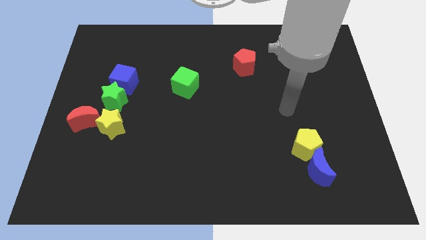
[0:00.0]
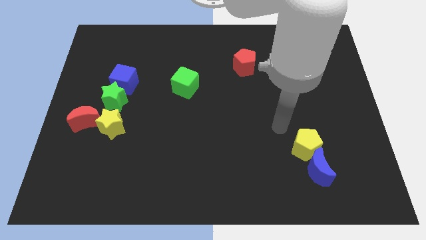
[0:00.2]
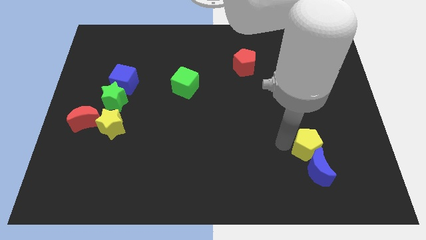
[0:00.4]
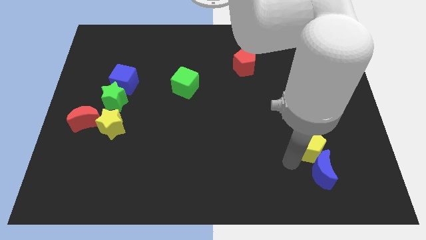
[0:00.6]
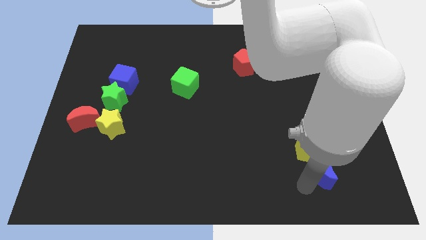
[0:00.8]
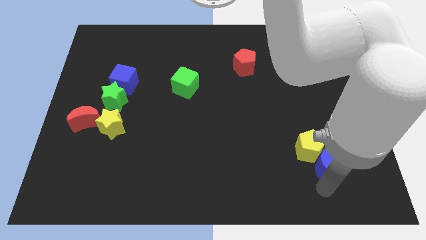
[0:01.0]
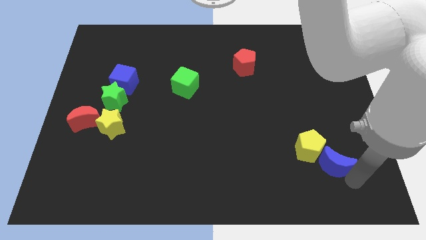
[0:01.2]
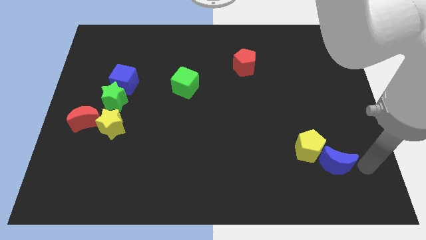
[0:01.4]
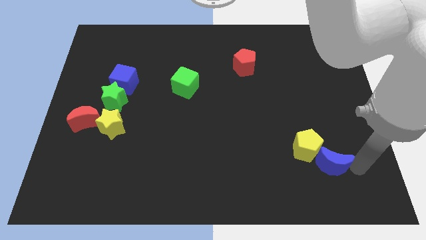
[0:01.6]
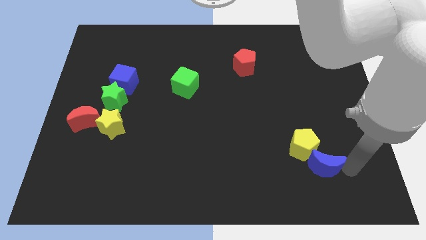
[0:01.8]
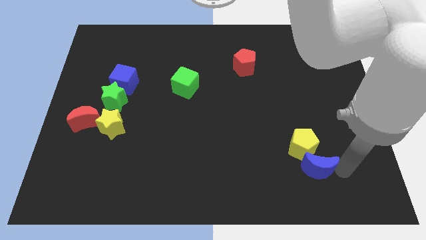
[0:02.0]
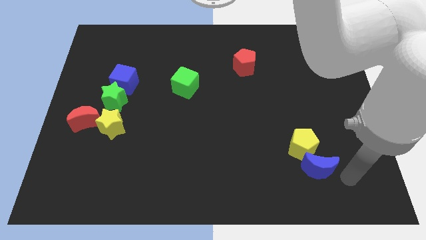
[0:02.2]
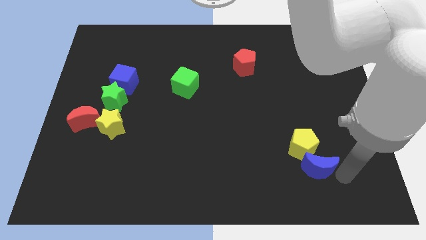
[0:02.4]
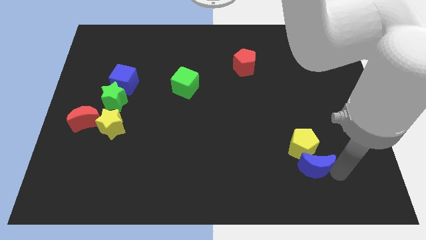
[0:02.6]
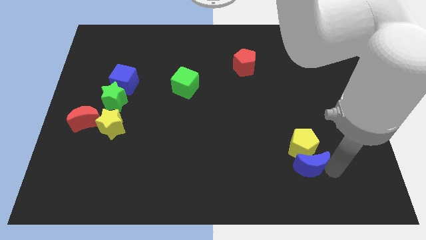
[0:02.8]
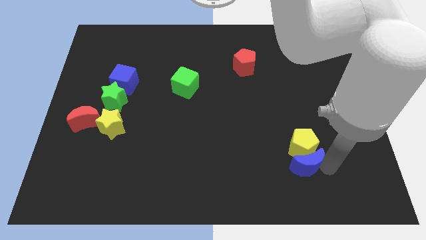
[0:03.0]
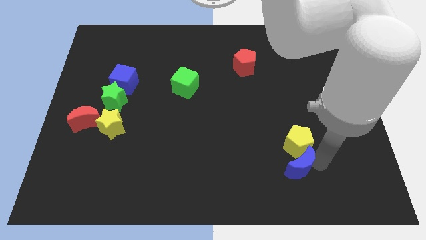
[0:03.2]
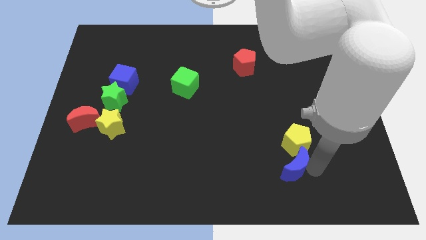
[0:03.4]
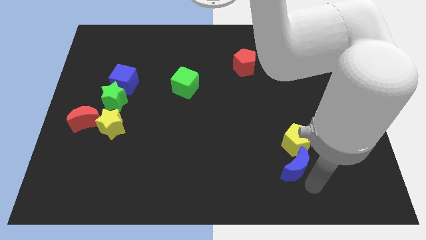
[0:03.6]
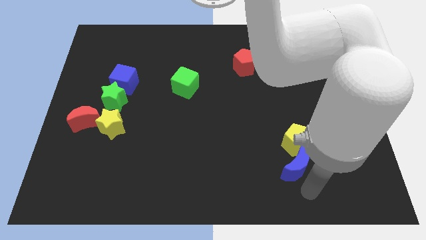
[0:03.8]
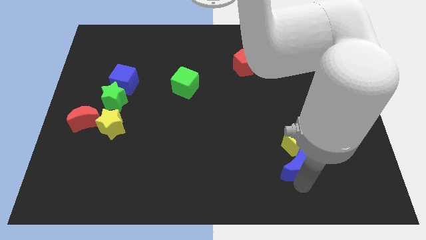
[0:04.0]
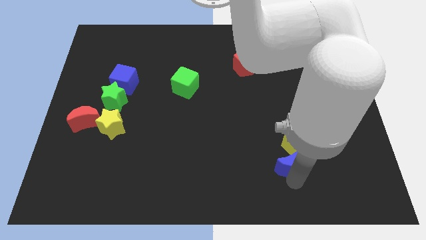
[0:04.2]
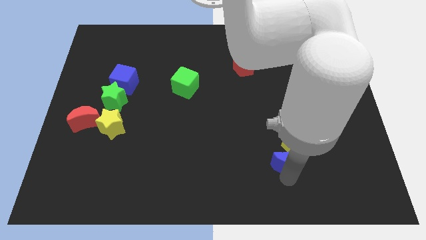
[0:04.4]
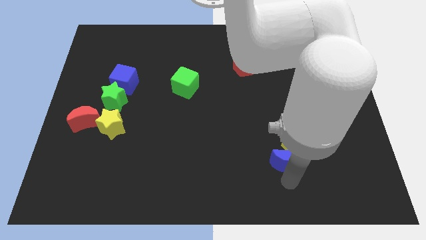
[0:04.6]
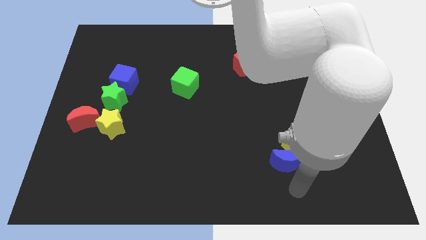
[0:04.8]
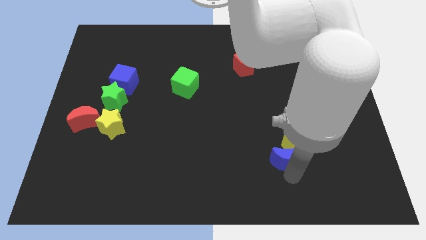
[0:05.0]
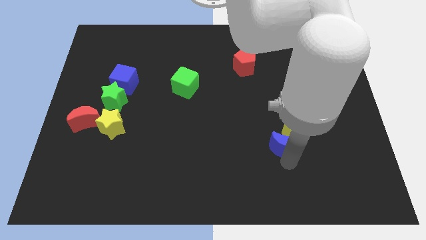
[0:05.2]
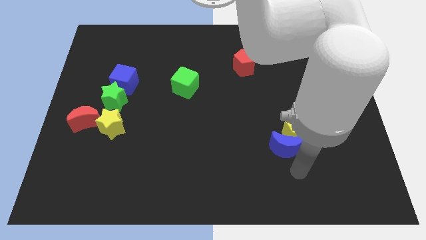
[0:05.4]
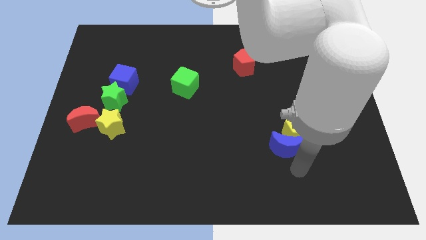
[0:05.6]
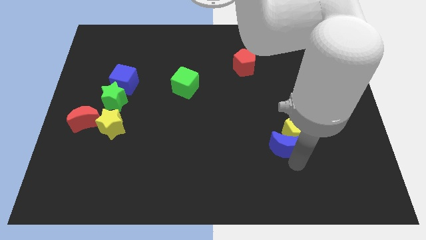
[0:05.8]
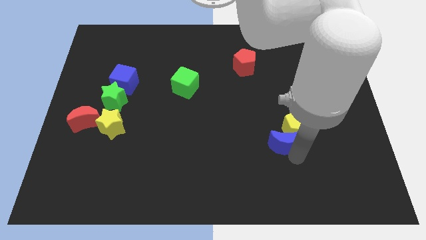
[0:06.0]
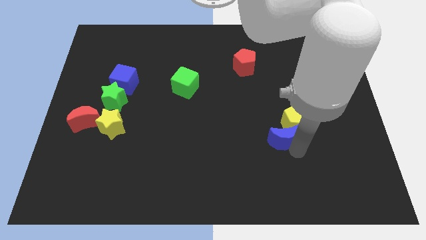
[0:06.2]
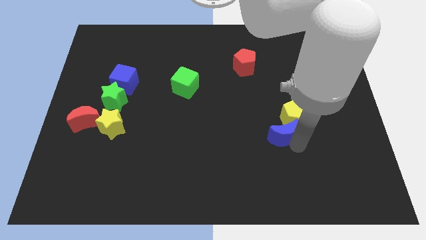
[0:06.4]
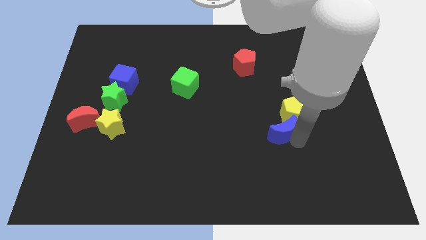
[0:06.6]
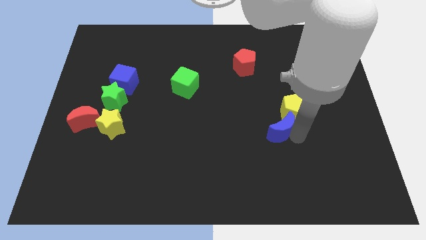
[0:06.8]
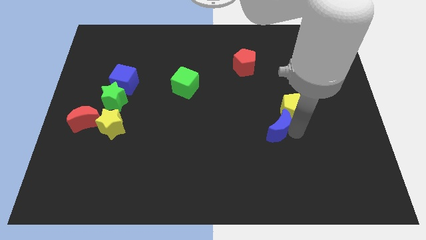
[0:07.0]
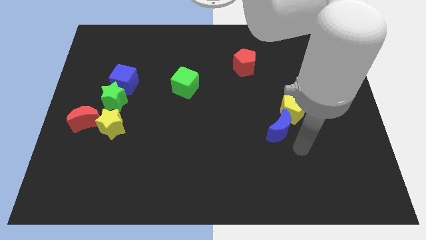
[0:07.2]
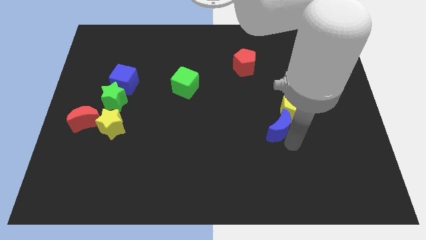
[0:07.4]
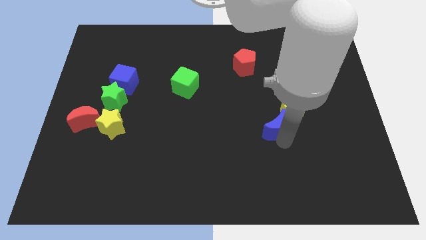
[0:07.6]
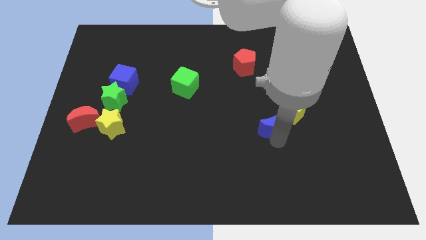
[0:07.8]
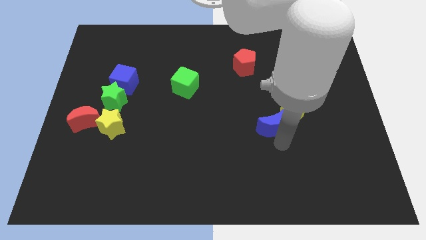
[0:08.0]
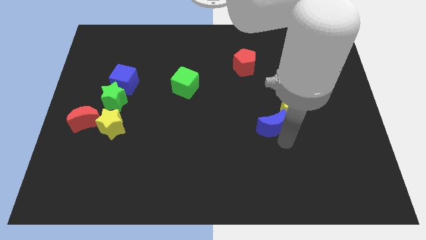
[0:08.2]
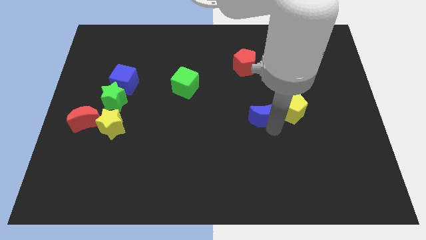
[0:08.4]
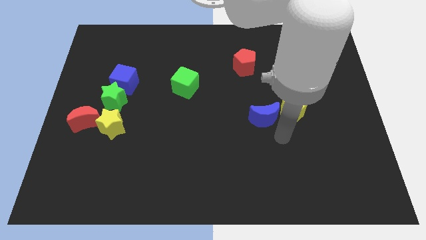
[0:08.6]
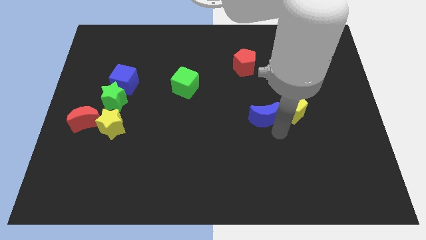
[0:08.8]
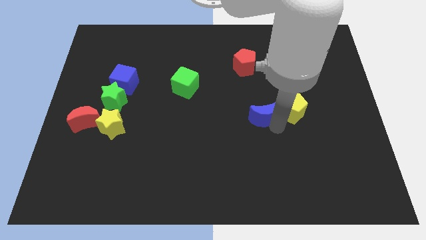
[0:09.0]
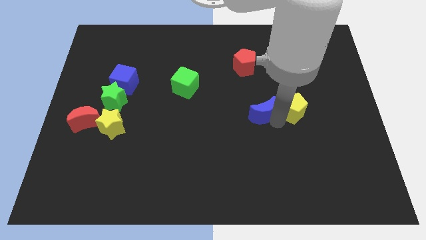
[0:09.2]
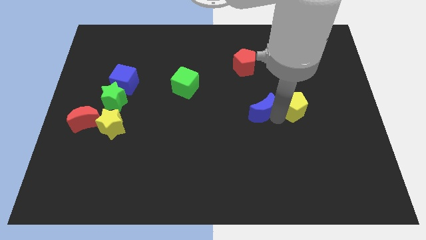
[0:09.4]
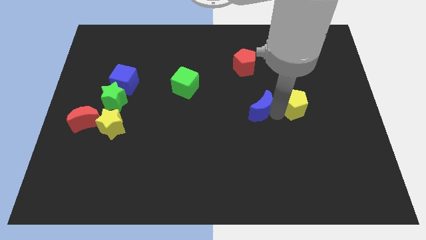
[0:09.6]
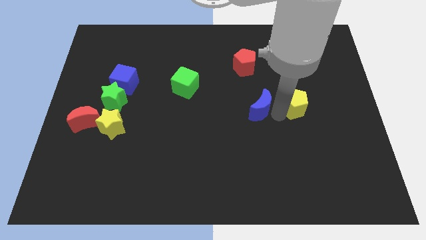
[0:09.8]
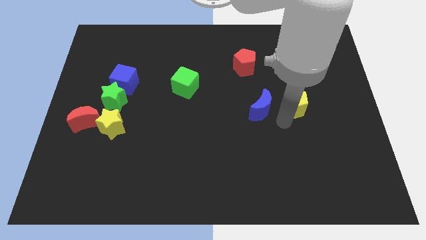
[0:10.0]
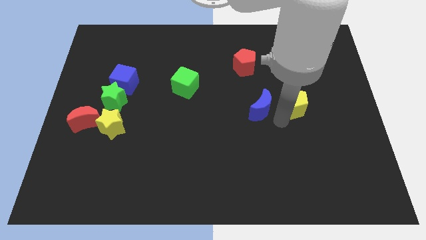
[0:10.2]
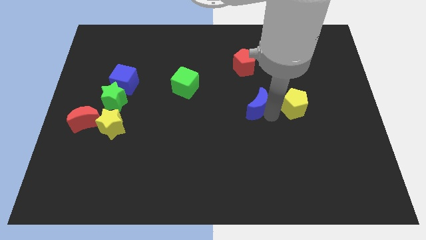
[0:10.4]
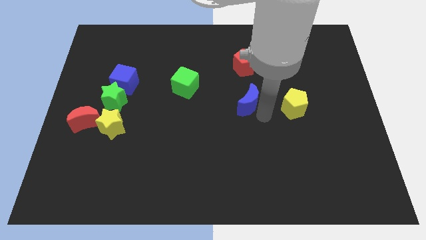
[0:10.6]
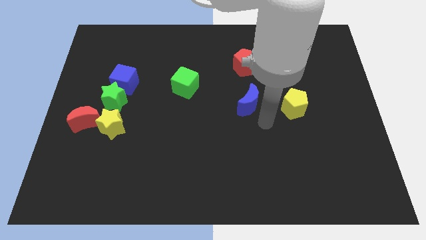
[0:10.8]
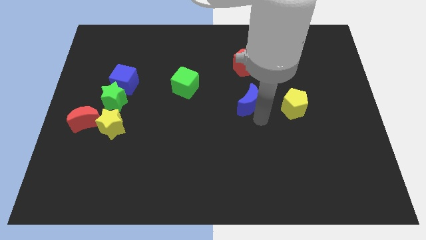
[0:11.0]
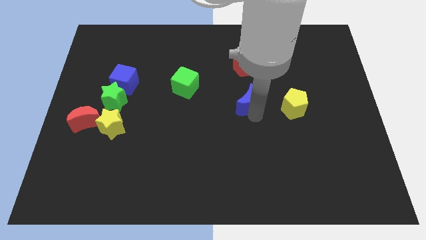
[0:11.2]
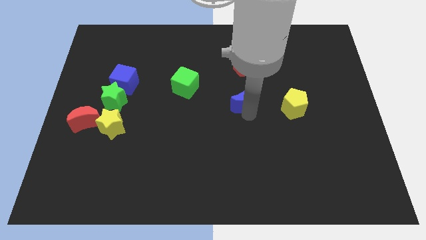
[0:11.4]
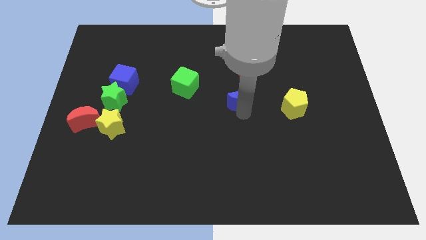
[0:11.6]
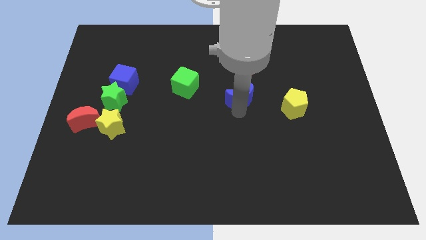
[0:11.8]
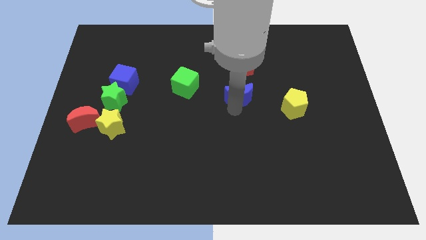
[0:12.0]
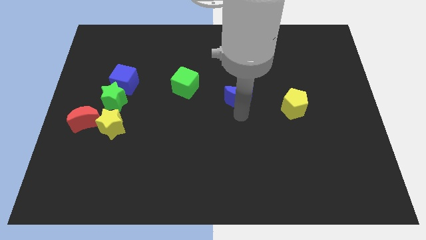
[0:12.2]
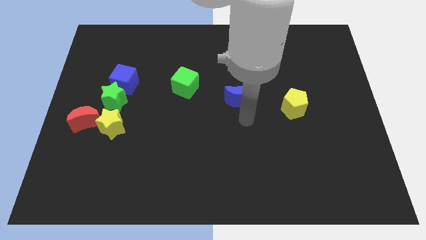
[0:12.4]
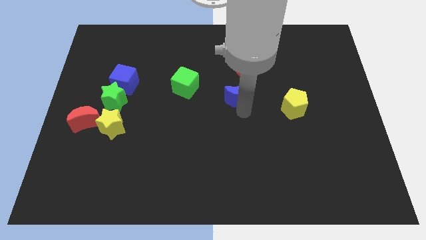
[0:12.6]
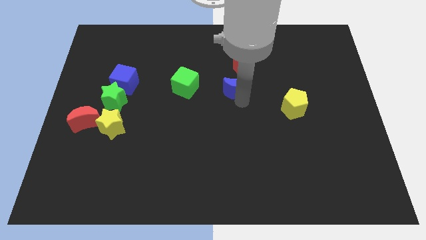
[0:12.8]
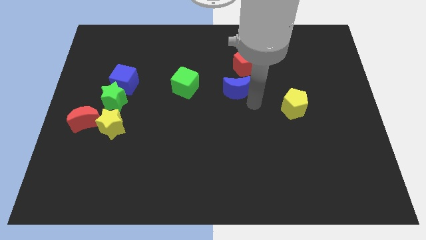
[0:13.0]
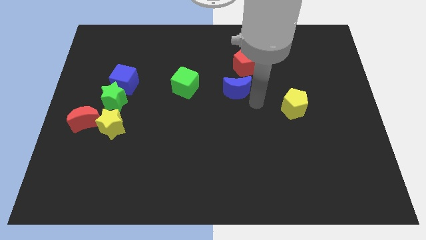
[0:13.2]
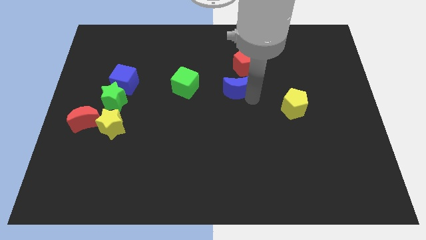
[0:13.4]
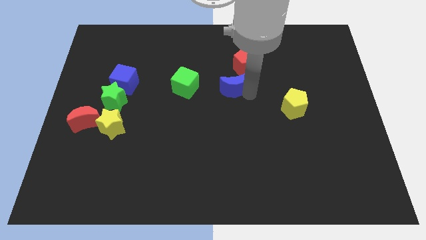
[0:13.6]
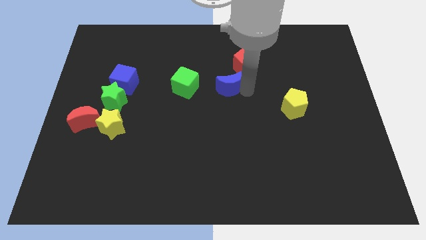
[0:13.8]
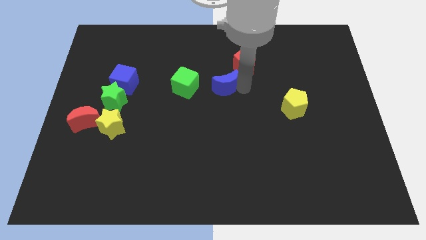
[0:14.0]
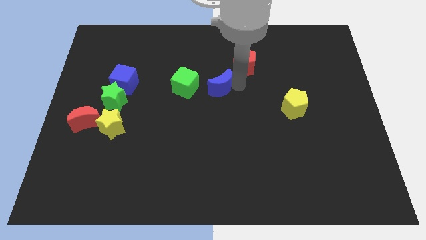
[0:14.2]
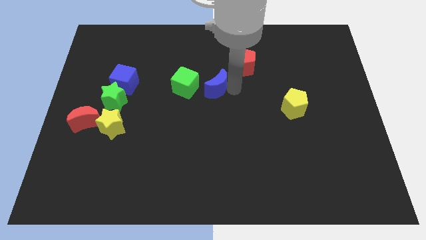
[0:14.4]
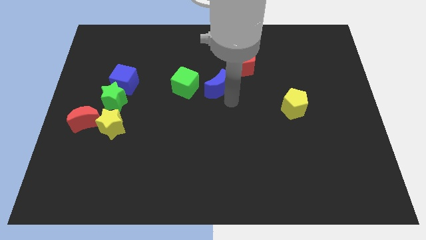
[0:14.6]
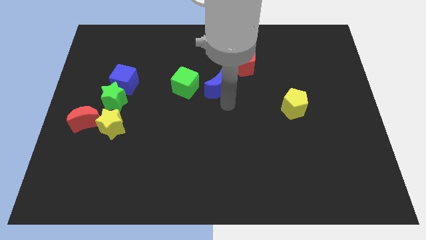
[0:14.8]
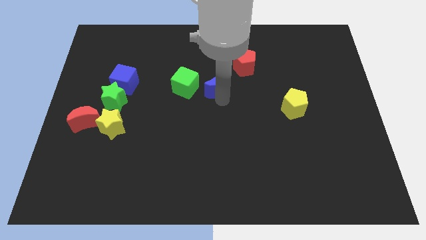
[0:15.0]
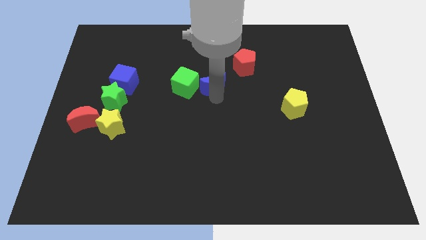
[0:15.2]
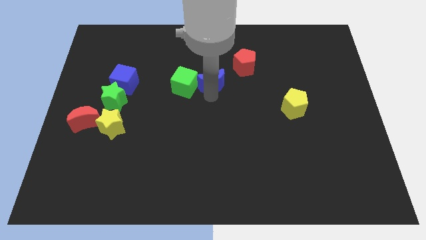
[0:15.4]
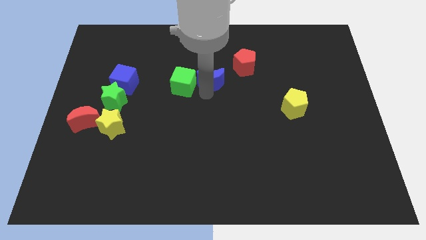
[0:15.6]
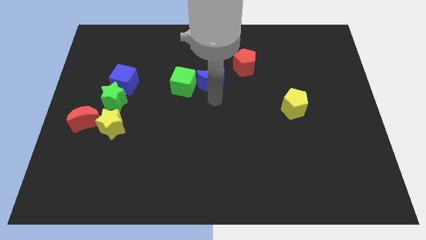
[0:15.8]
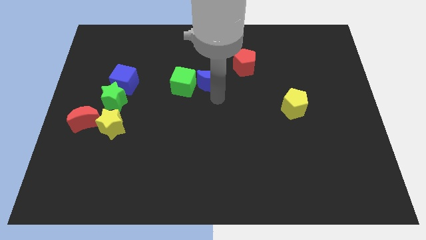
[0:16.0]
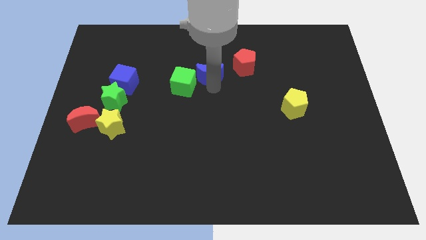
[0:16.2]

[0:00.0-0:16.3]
move the blue moon just left of the red pentagon
